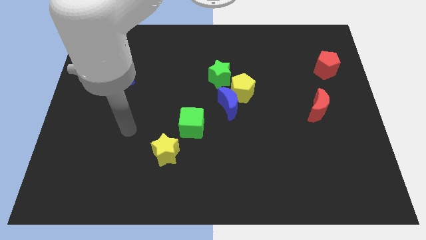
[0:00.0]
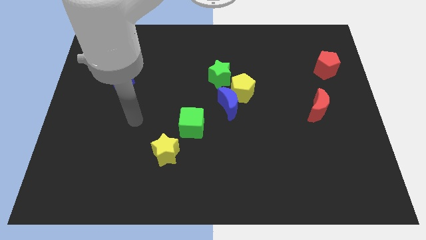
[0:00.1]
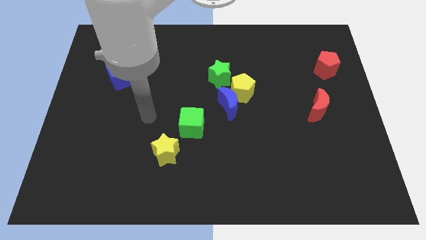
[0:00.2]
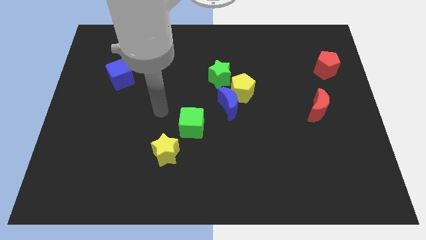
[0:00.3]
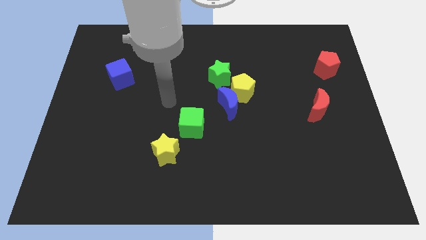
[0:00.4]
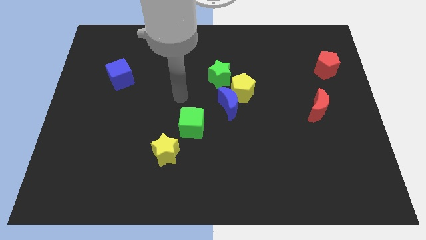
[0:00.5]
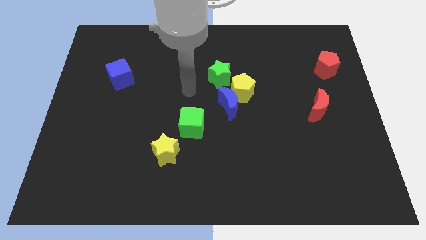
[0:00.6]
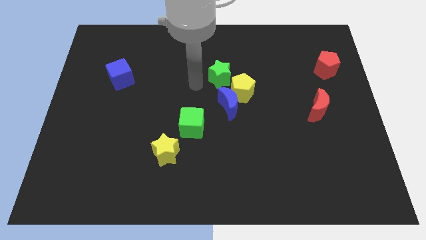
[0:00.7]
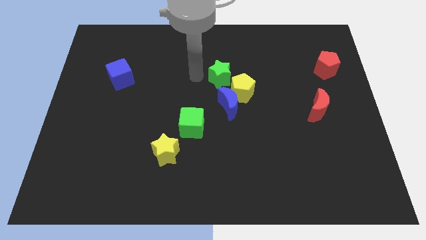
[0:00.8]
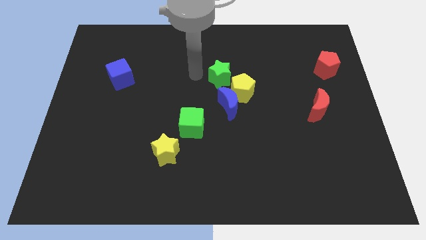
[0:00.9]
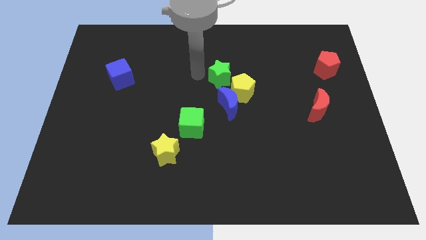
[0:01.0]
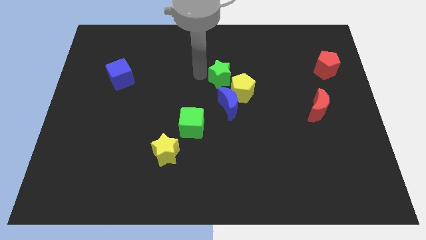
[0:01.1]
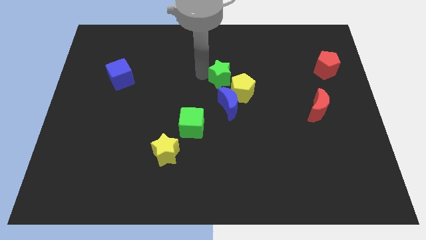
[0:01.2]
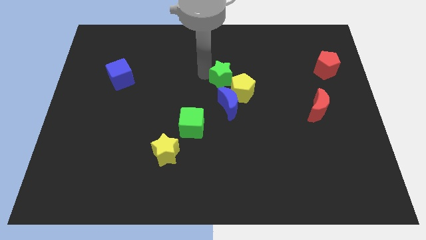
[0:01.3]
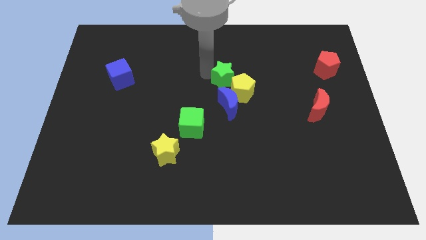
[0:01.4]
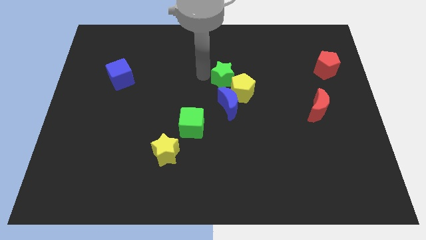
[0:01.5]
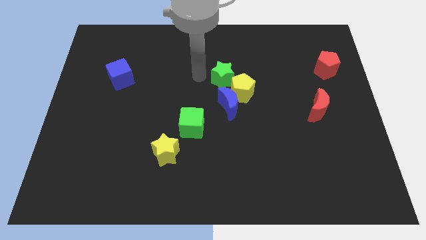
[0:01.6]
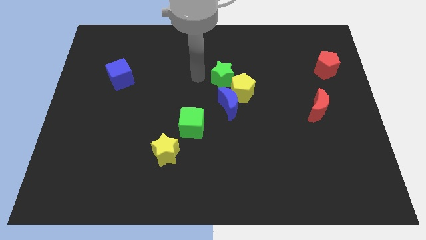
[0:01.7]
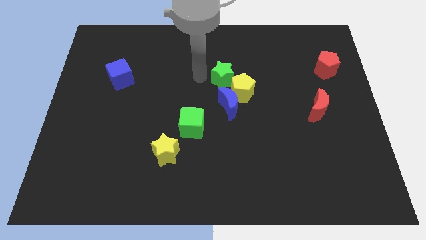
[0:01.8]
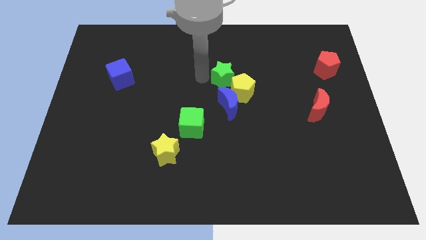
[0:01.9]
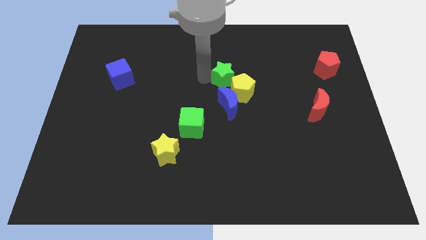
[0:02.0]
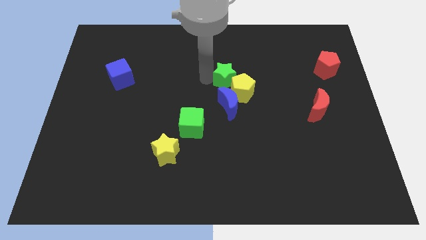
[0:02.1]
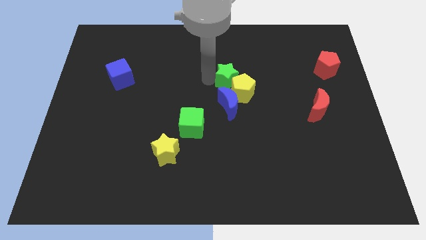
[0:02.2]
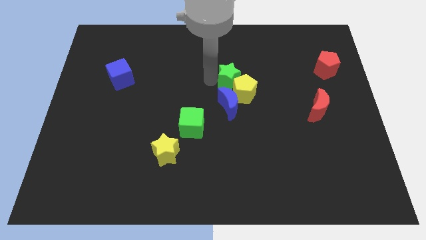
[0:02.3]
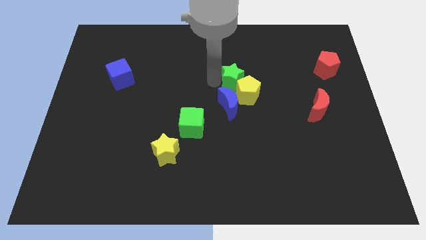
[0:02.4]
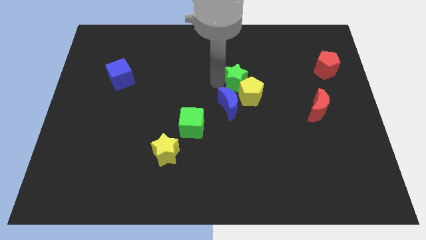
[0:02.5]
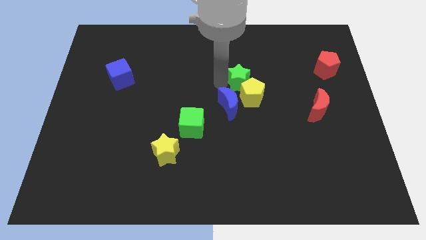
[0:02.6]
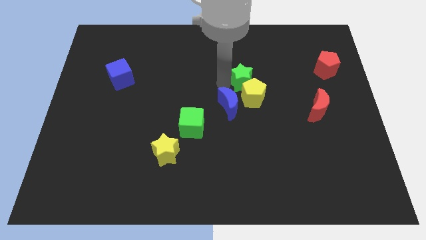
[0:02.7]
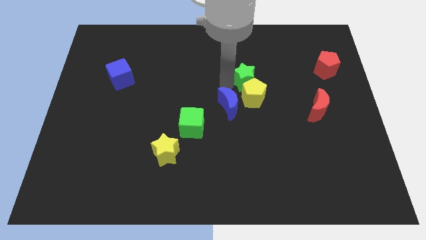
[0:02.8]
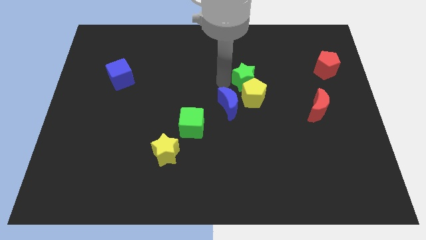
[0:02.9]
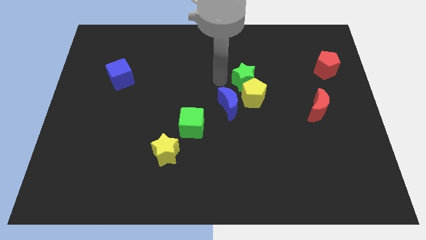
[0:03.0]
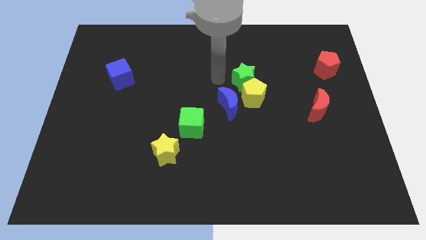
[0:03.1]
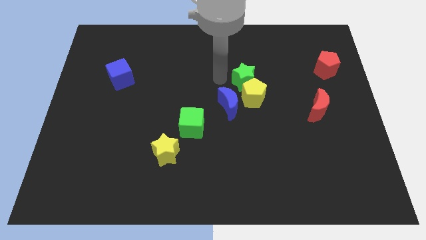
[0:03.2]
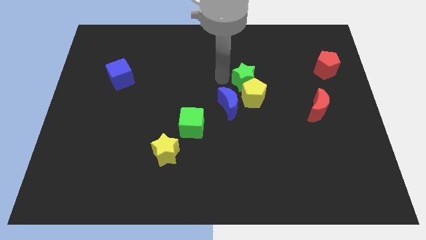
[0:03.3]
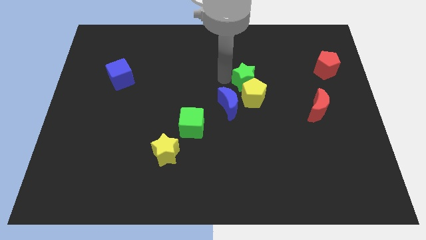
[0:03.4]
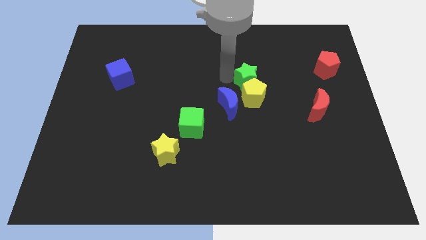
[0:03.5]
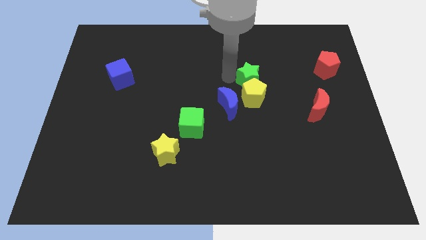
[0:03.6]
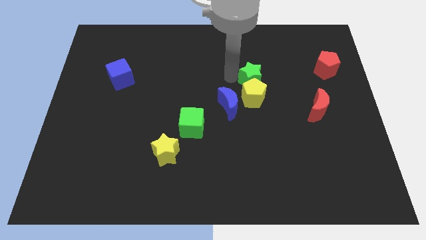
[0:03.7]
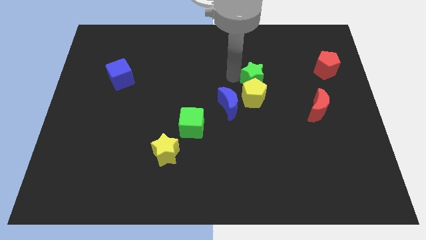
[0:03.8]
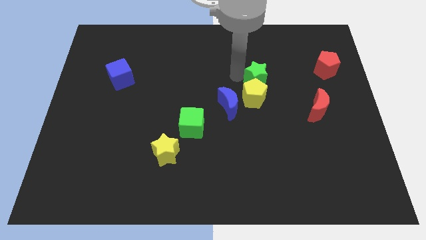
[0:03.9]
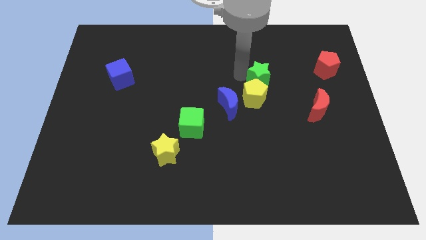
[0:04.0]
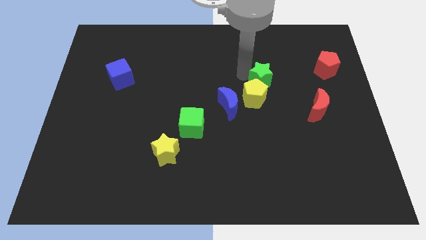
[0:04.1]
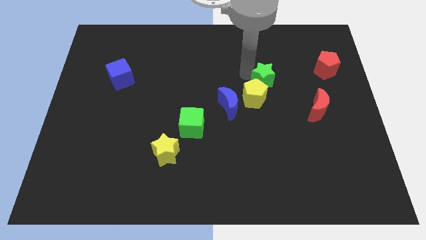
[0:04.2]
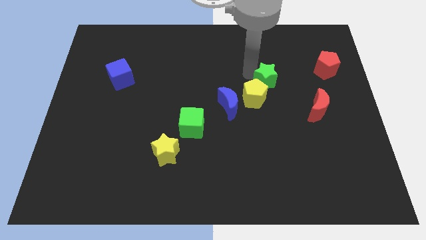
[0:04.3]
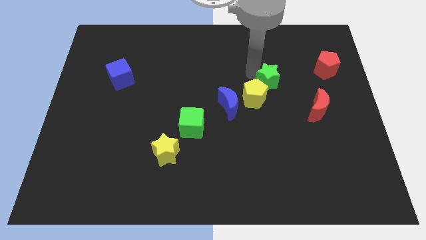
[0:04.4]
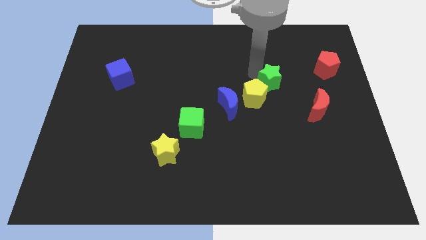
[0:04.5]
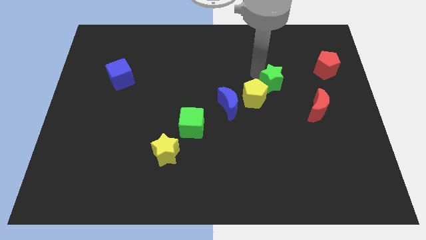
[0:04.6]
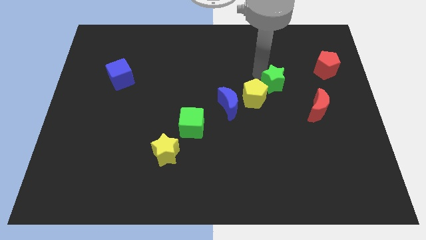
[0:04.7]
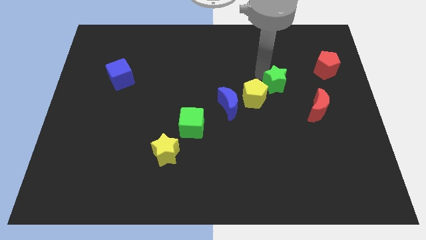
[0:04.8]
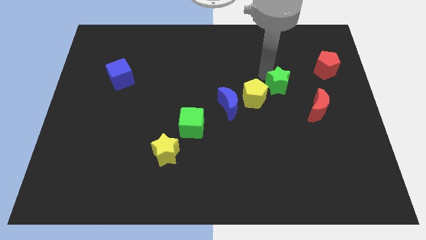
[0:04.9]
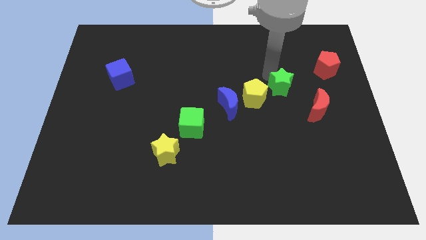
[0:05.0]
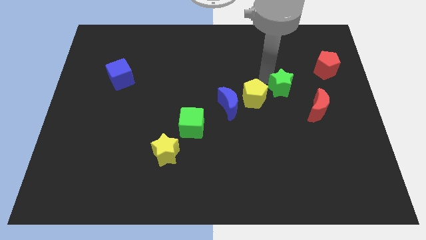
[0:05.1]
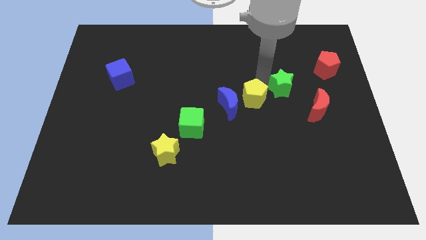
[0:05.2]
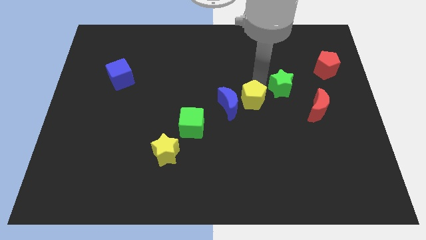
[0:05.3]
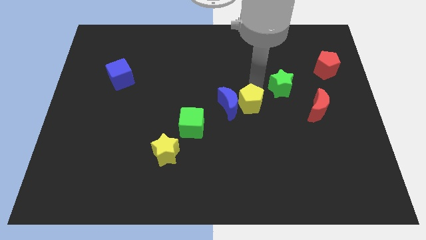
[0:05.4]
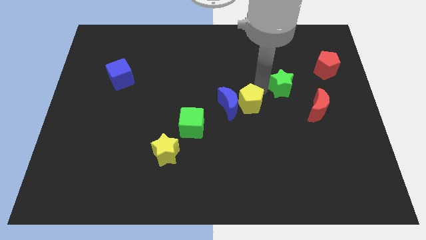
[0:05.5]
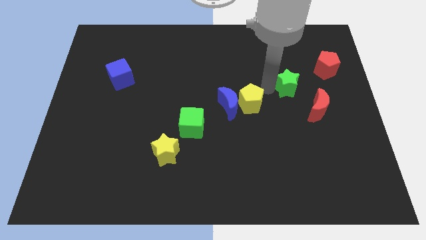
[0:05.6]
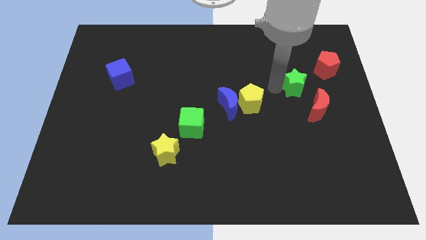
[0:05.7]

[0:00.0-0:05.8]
put the green star to the bottom left side of the red pentagon

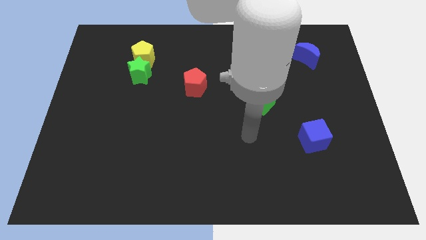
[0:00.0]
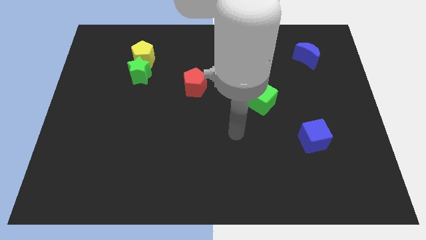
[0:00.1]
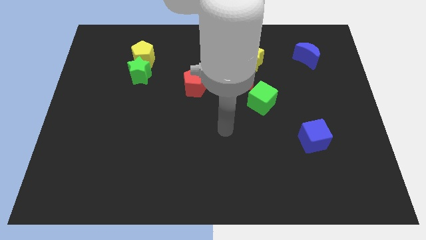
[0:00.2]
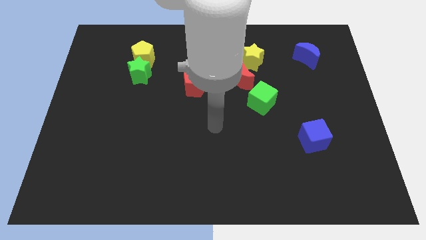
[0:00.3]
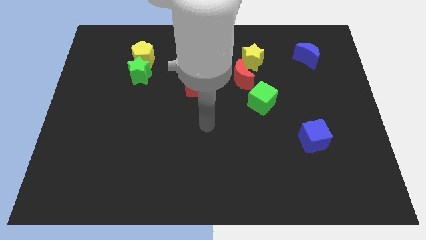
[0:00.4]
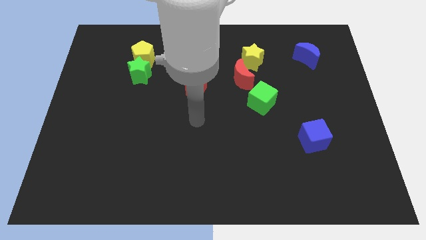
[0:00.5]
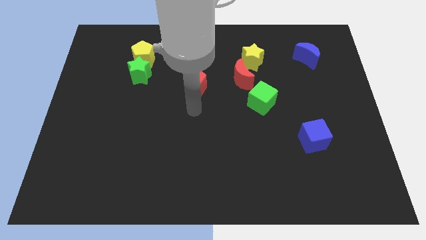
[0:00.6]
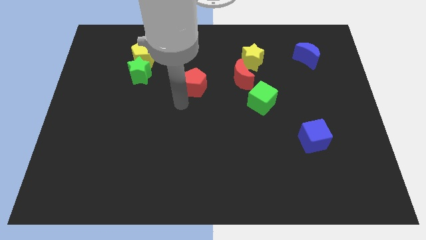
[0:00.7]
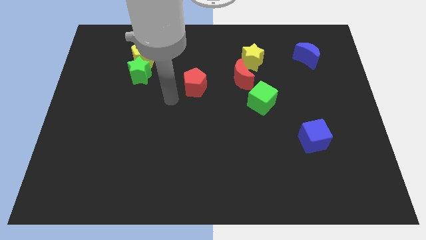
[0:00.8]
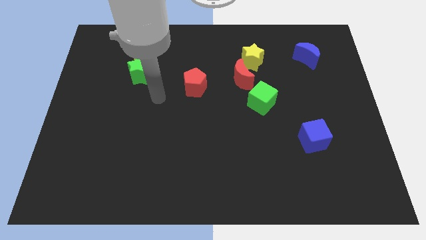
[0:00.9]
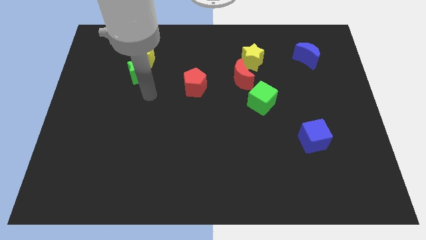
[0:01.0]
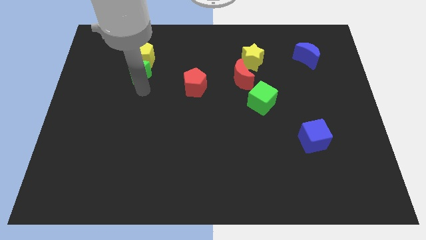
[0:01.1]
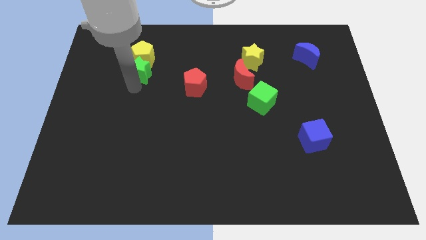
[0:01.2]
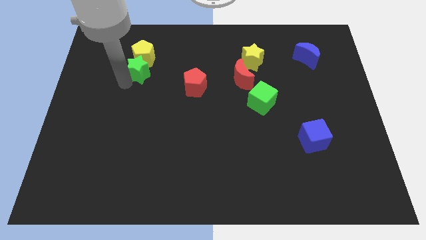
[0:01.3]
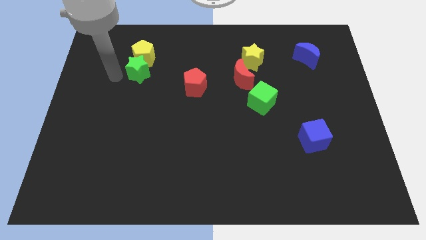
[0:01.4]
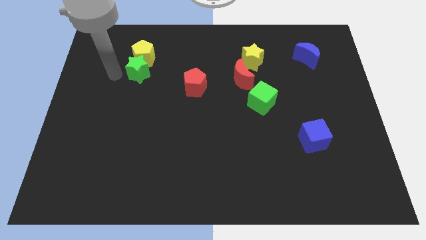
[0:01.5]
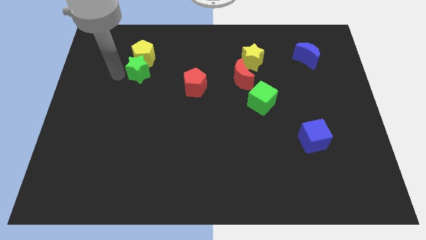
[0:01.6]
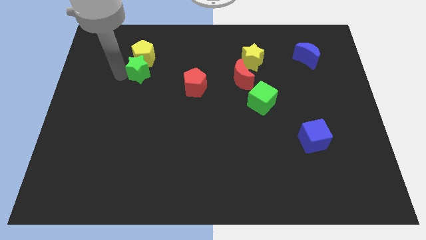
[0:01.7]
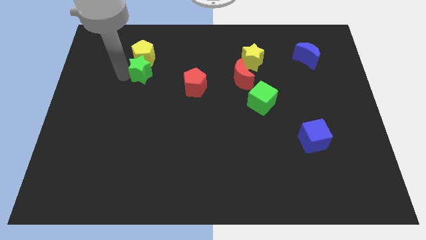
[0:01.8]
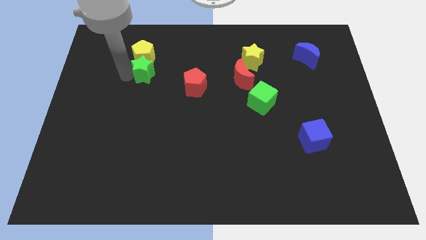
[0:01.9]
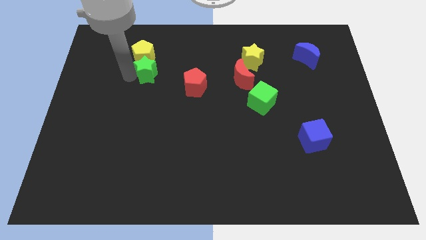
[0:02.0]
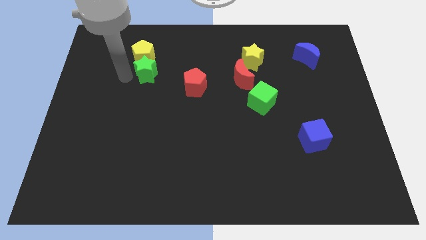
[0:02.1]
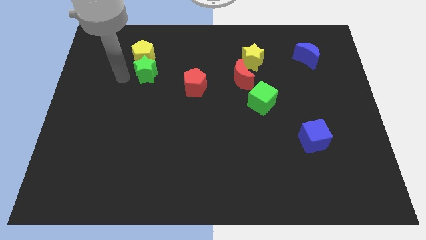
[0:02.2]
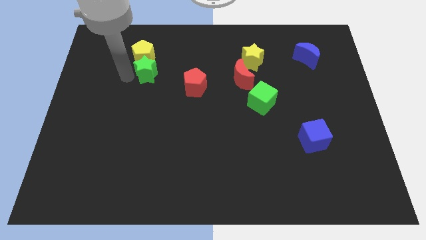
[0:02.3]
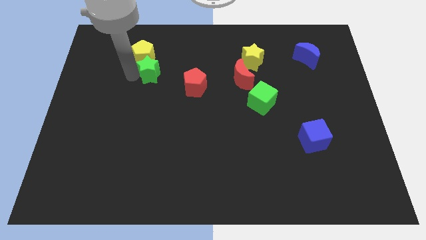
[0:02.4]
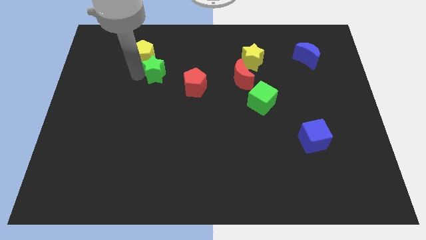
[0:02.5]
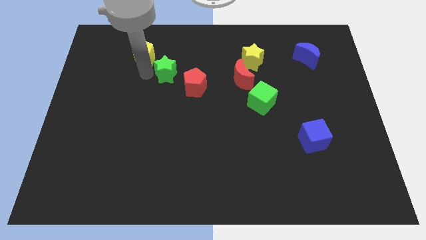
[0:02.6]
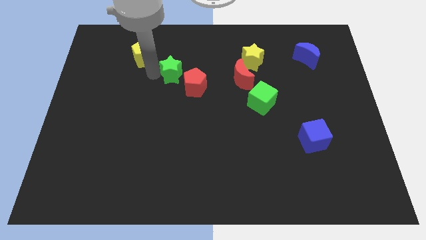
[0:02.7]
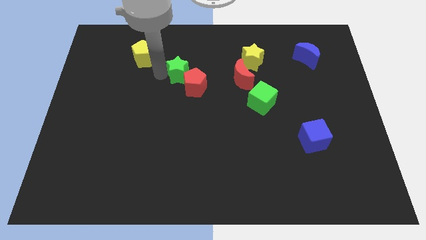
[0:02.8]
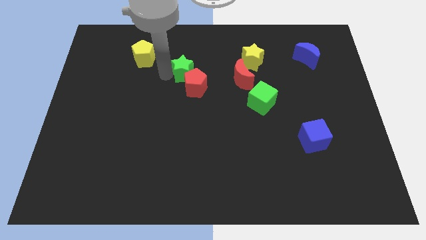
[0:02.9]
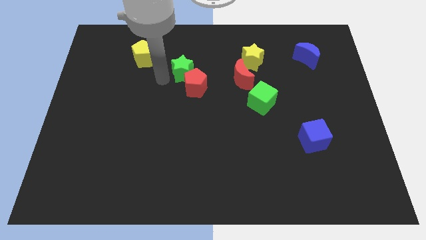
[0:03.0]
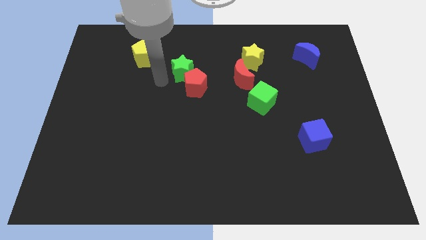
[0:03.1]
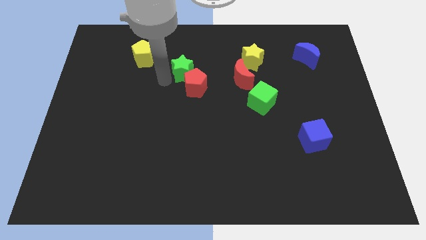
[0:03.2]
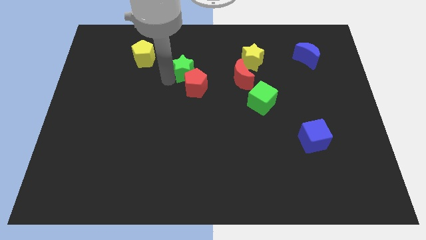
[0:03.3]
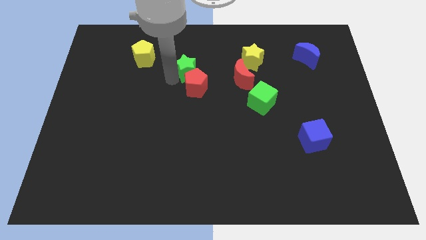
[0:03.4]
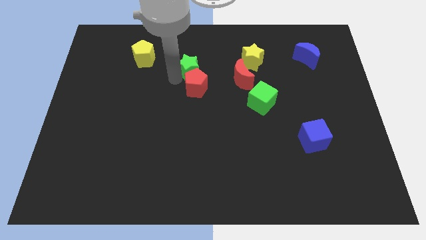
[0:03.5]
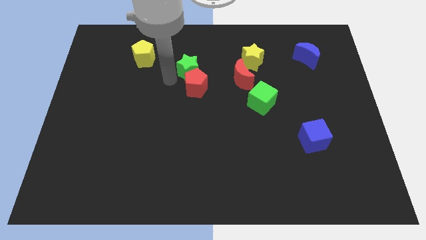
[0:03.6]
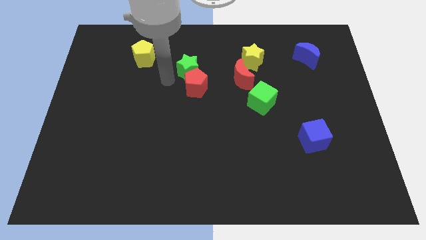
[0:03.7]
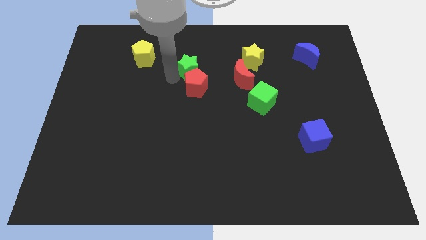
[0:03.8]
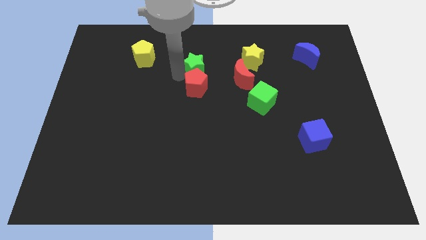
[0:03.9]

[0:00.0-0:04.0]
push the green star to the left of the yellow star
